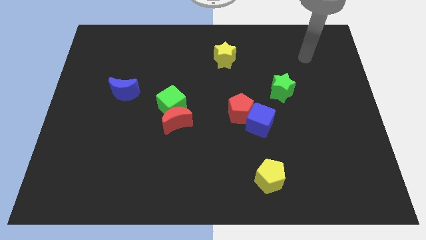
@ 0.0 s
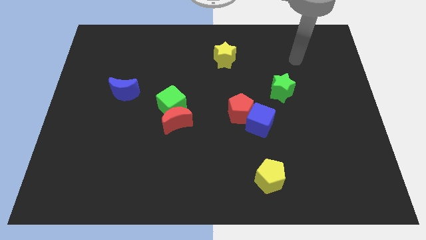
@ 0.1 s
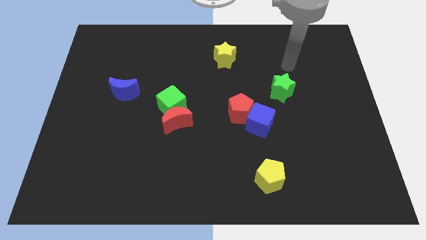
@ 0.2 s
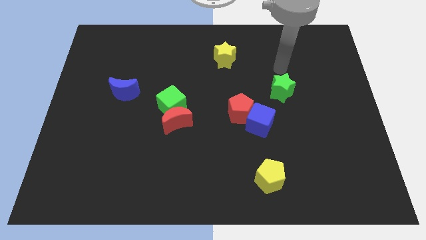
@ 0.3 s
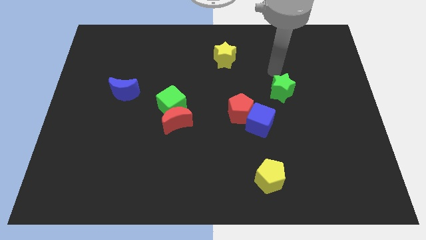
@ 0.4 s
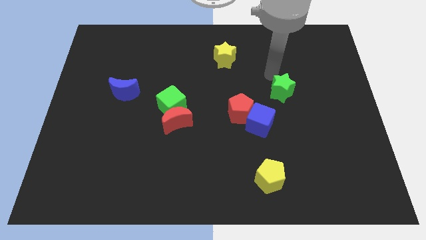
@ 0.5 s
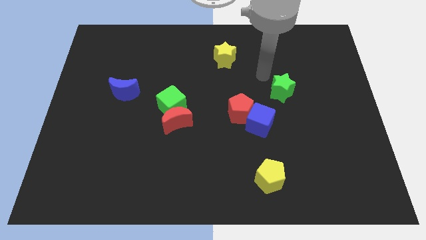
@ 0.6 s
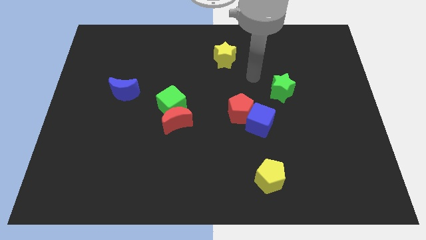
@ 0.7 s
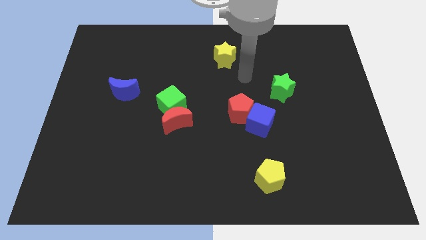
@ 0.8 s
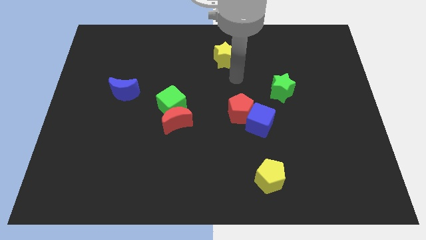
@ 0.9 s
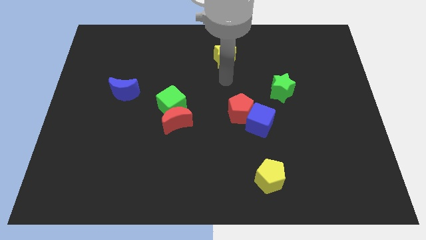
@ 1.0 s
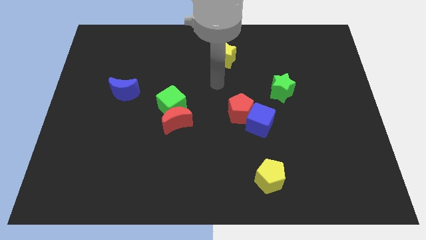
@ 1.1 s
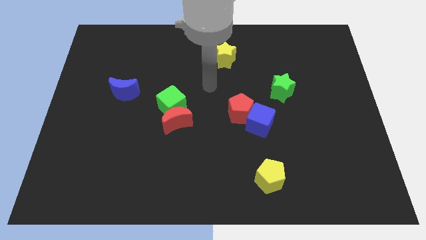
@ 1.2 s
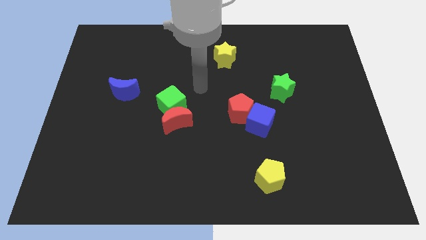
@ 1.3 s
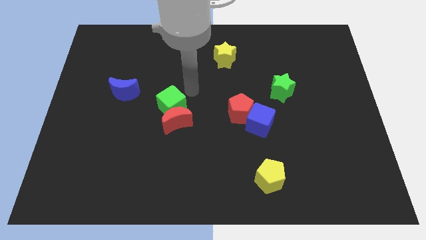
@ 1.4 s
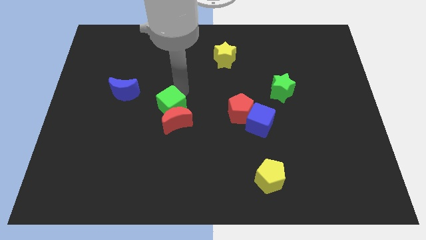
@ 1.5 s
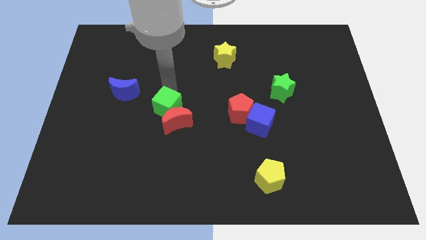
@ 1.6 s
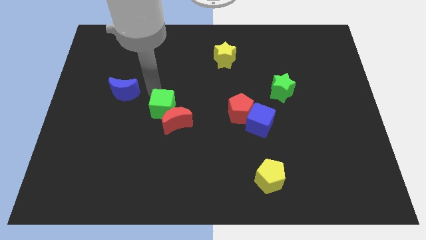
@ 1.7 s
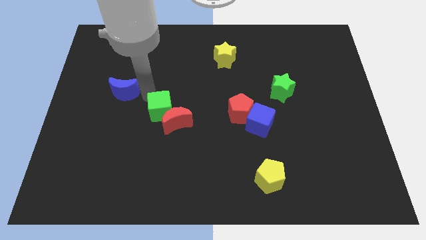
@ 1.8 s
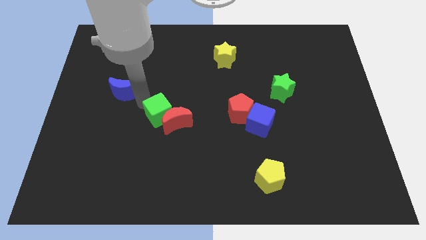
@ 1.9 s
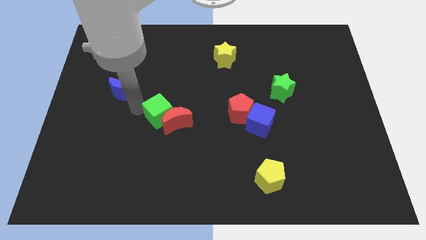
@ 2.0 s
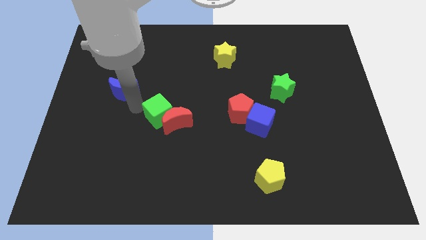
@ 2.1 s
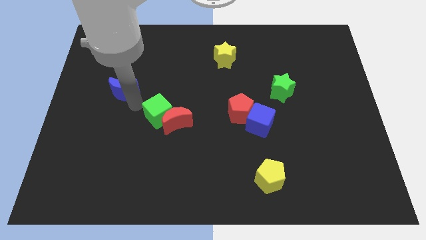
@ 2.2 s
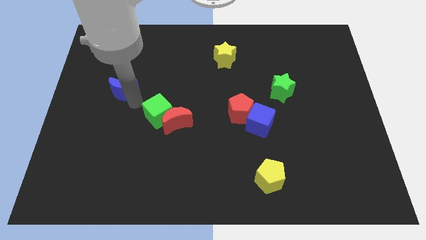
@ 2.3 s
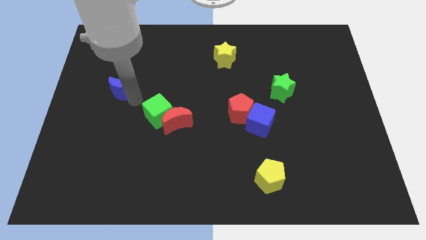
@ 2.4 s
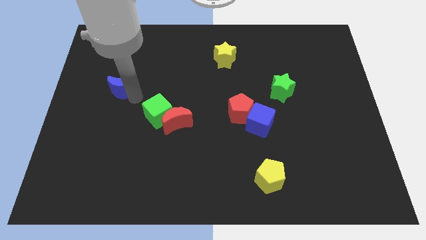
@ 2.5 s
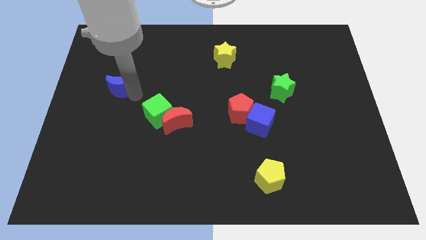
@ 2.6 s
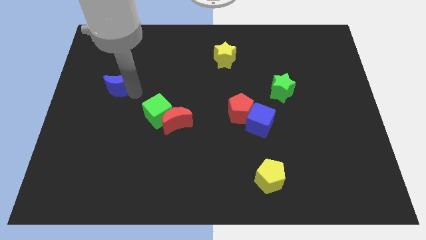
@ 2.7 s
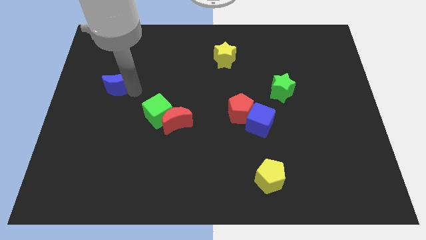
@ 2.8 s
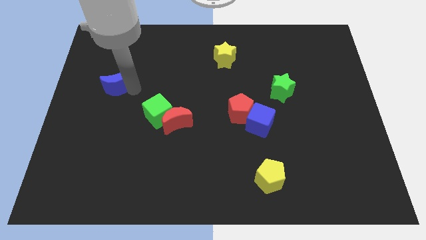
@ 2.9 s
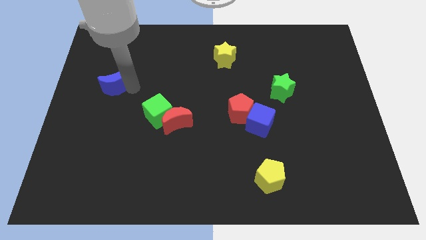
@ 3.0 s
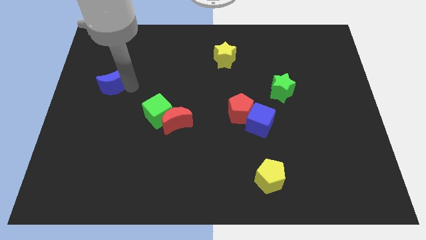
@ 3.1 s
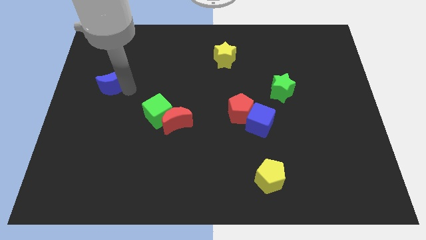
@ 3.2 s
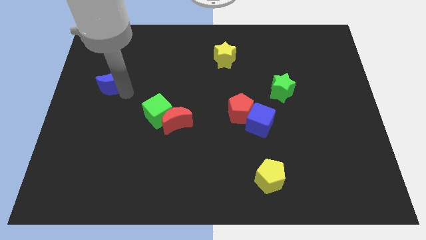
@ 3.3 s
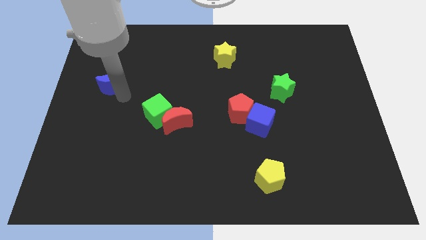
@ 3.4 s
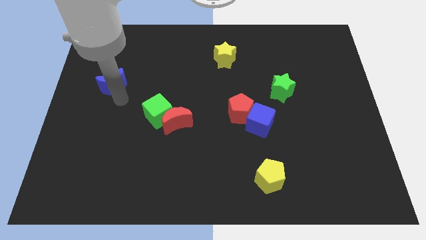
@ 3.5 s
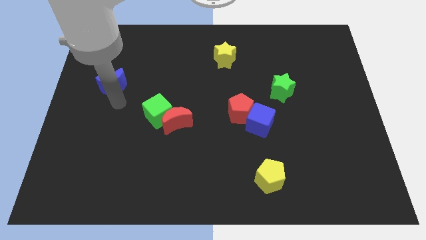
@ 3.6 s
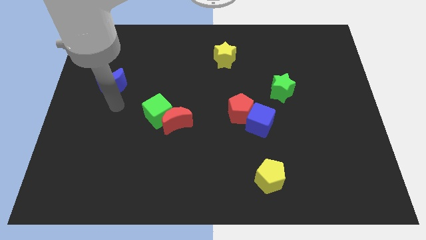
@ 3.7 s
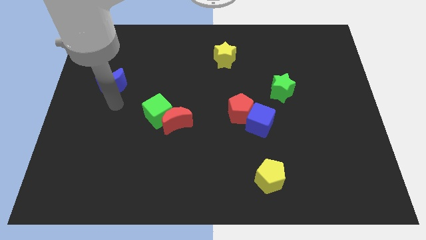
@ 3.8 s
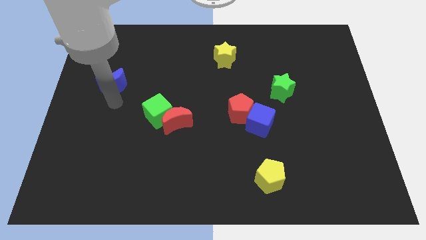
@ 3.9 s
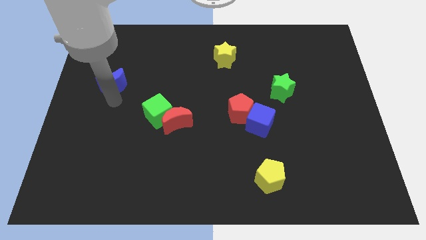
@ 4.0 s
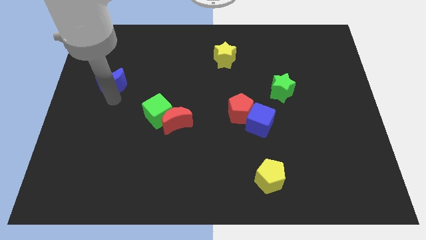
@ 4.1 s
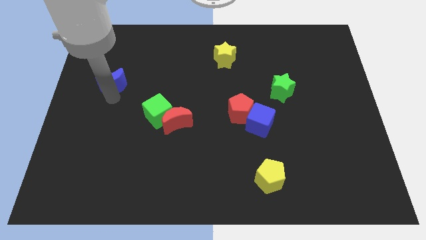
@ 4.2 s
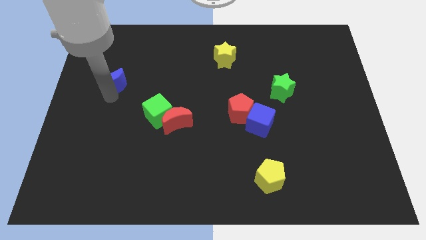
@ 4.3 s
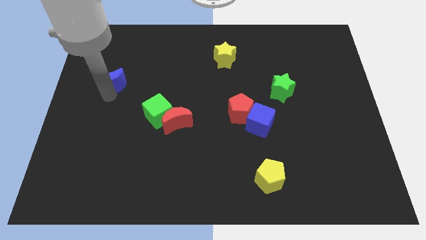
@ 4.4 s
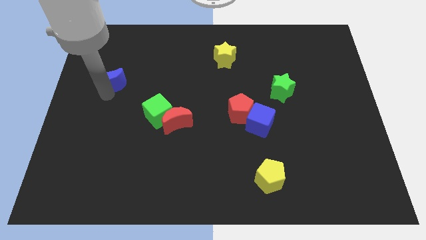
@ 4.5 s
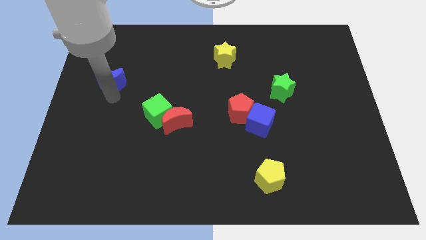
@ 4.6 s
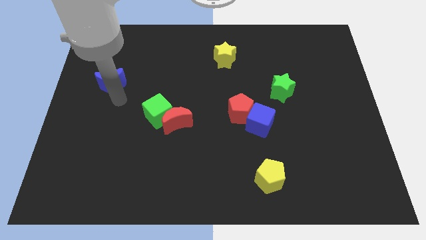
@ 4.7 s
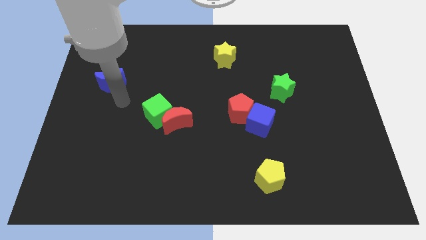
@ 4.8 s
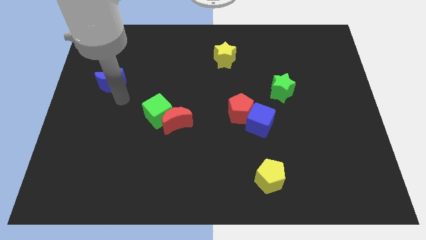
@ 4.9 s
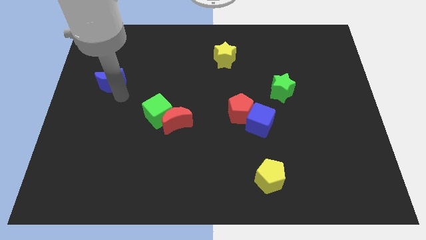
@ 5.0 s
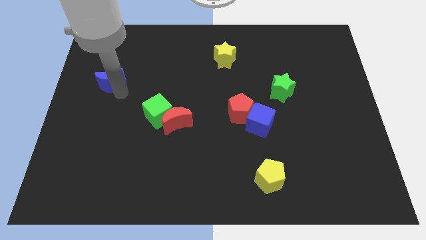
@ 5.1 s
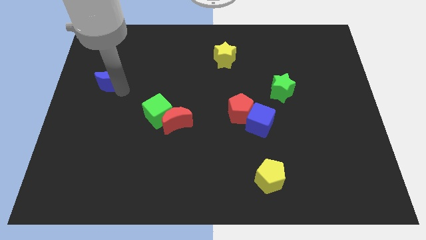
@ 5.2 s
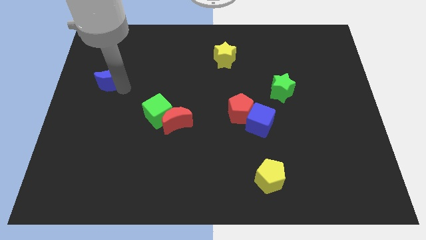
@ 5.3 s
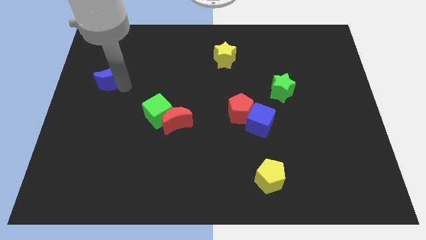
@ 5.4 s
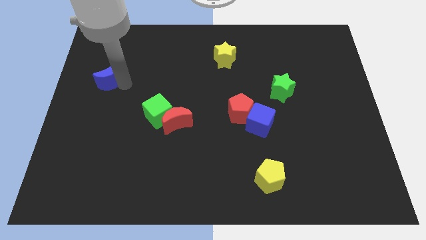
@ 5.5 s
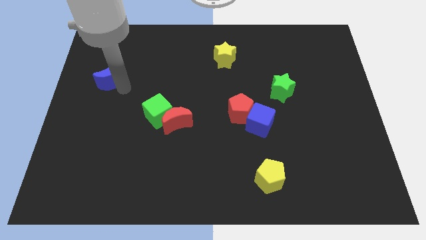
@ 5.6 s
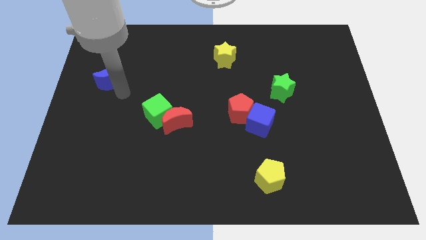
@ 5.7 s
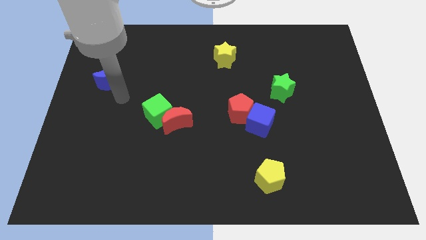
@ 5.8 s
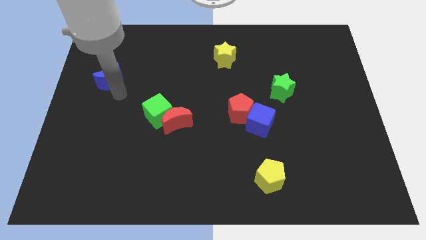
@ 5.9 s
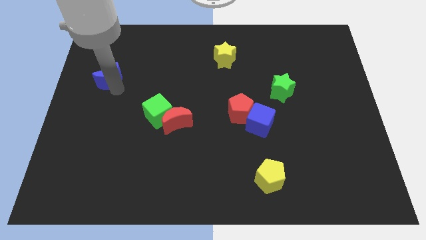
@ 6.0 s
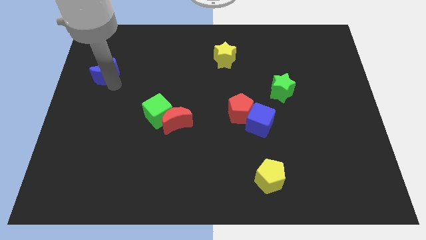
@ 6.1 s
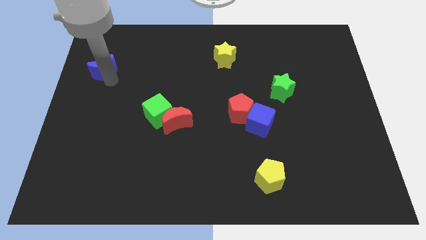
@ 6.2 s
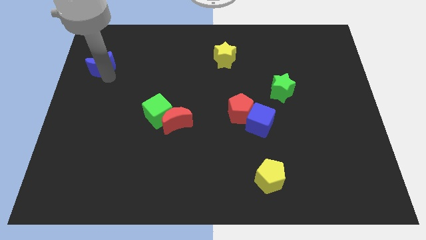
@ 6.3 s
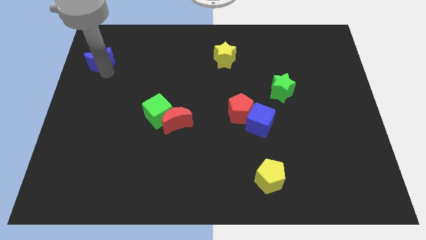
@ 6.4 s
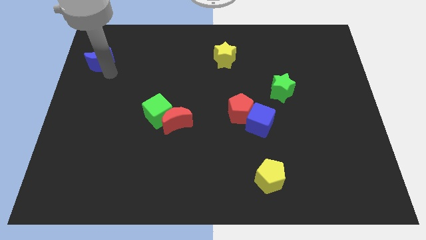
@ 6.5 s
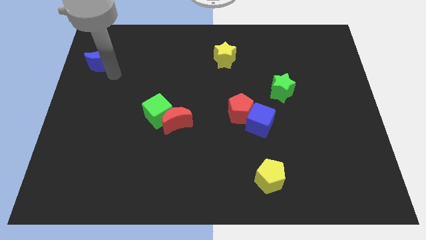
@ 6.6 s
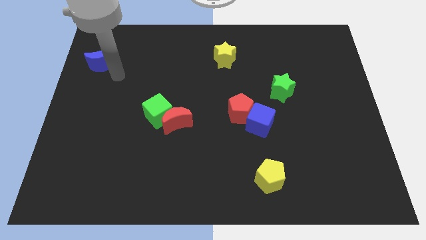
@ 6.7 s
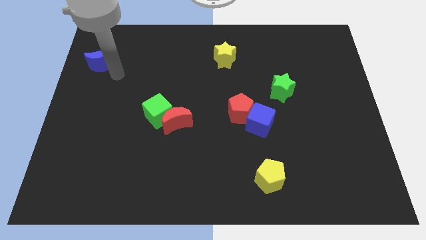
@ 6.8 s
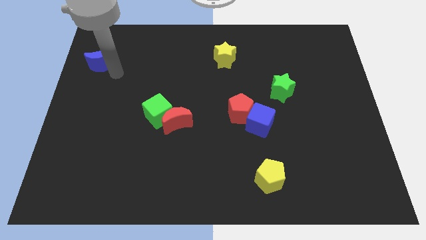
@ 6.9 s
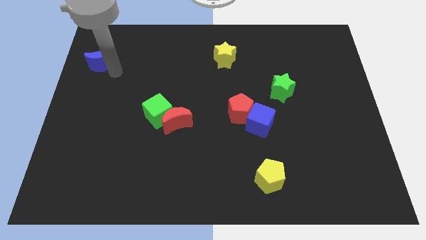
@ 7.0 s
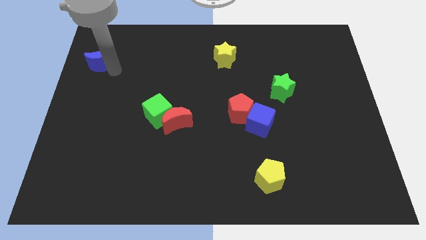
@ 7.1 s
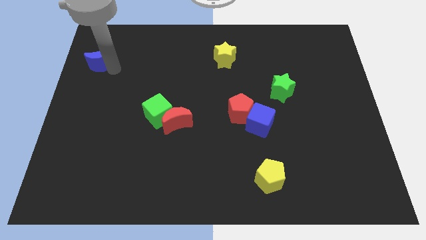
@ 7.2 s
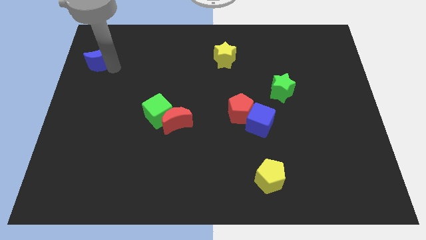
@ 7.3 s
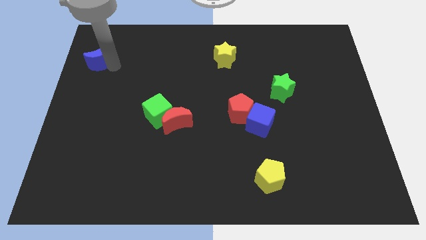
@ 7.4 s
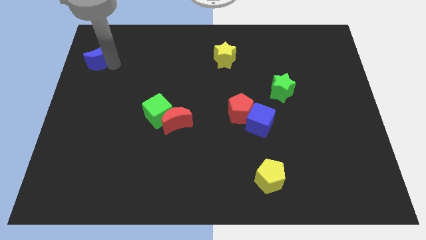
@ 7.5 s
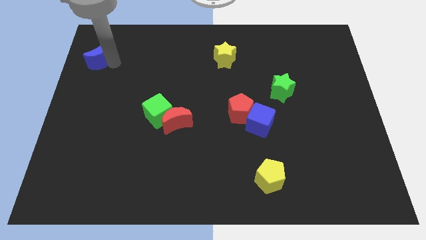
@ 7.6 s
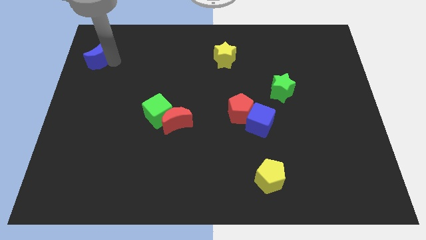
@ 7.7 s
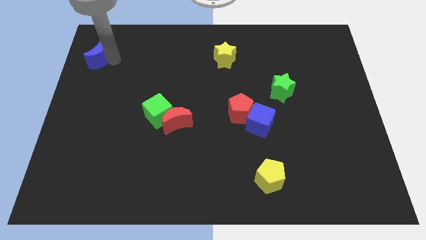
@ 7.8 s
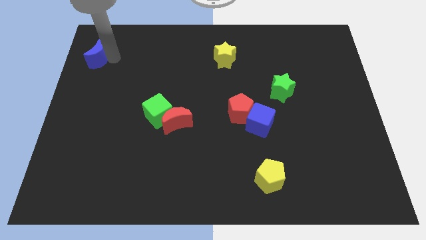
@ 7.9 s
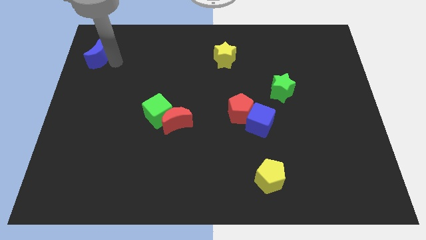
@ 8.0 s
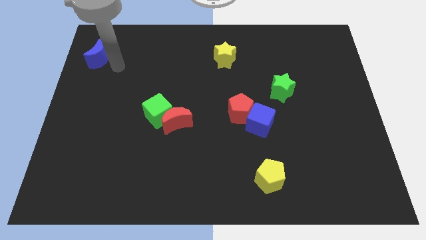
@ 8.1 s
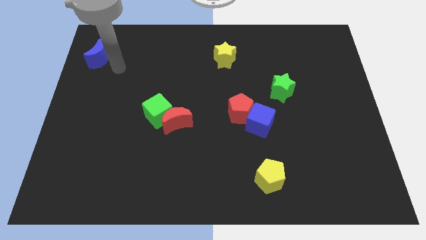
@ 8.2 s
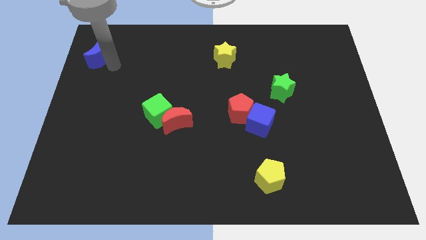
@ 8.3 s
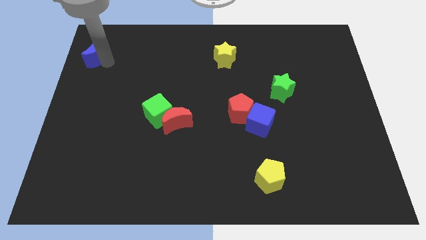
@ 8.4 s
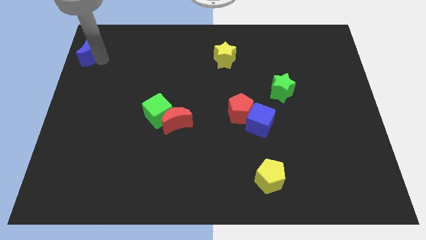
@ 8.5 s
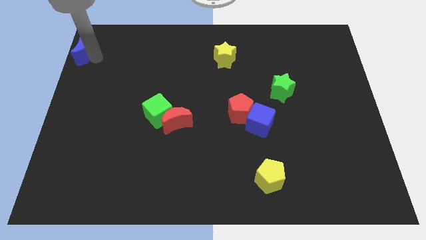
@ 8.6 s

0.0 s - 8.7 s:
slide the blue moon to the upper left corner
